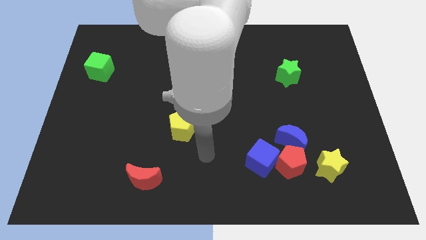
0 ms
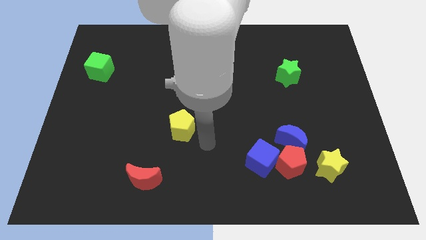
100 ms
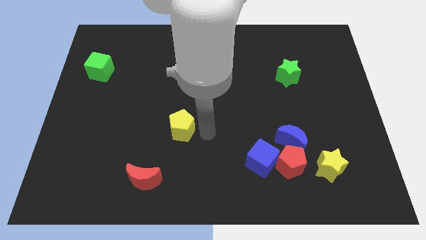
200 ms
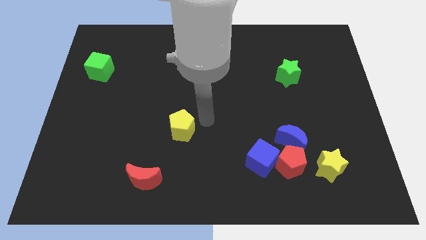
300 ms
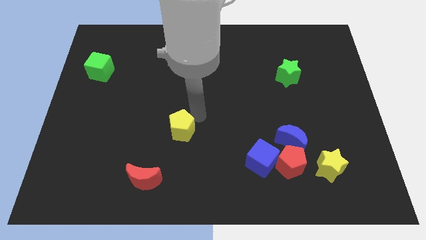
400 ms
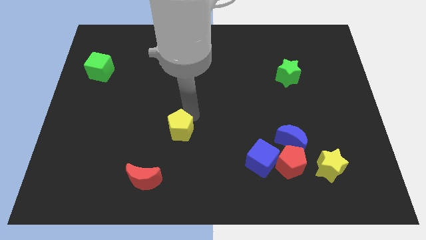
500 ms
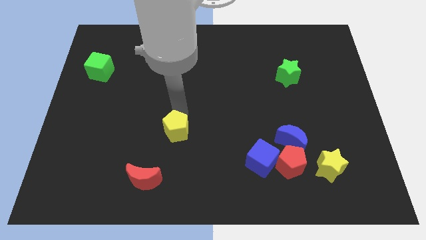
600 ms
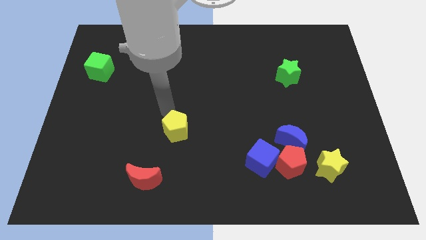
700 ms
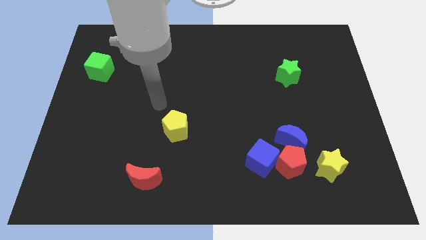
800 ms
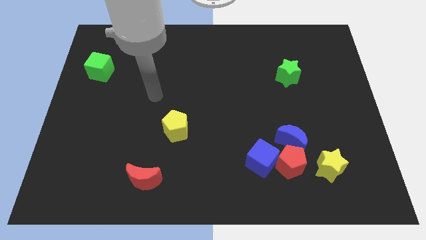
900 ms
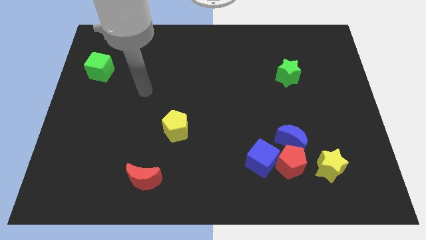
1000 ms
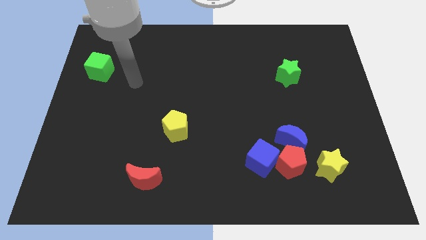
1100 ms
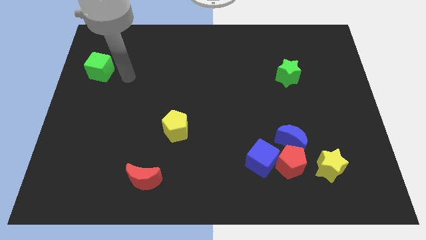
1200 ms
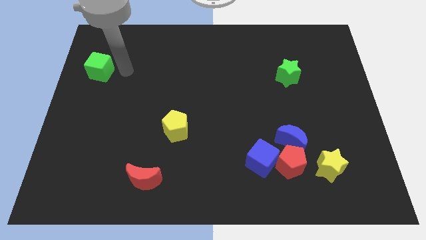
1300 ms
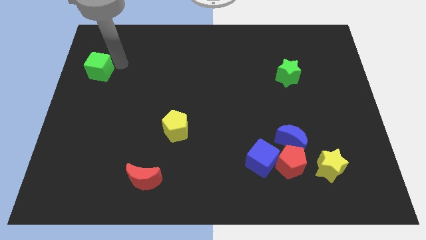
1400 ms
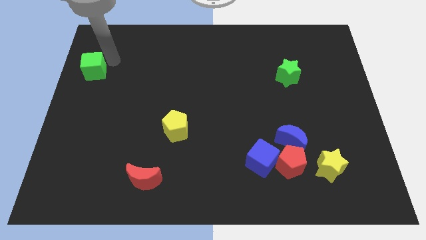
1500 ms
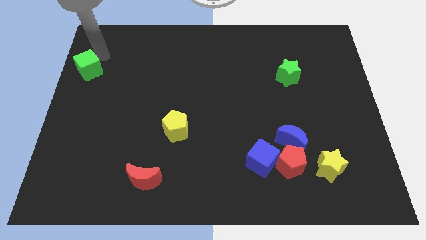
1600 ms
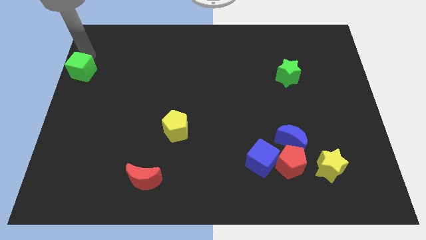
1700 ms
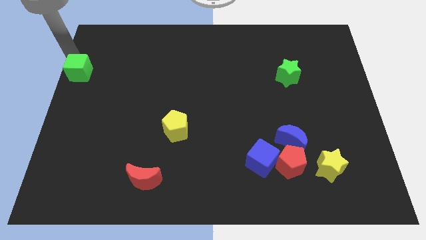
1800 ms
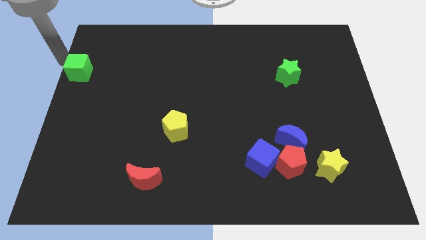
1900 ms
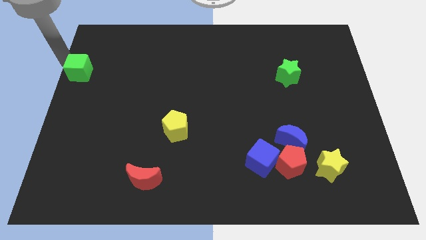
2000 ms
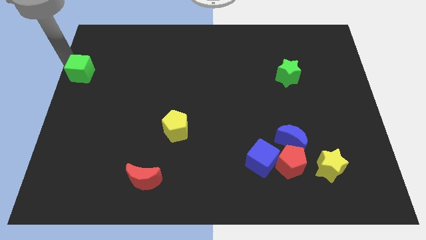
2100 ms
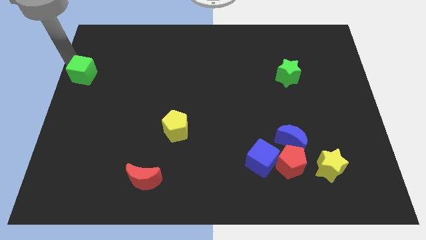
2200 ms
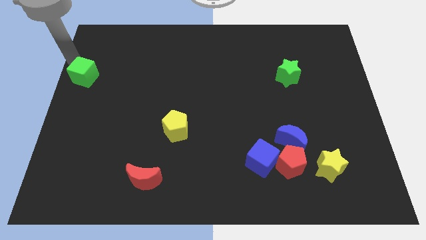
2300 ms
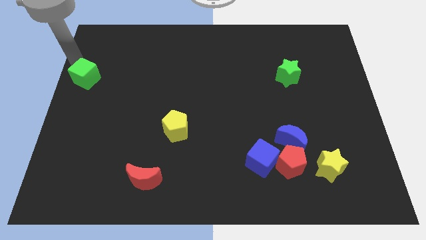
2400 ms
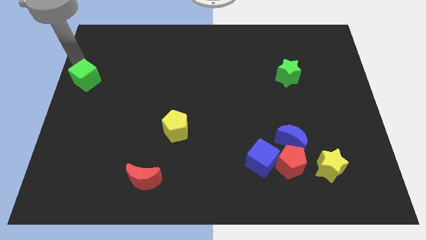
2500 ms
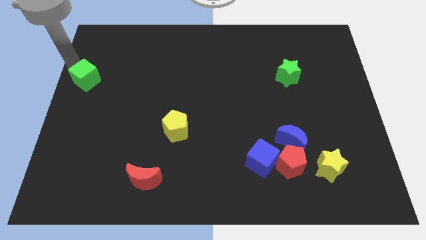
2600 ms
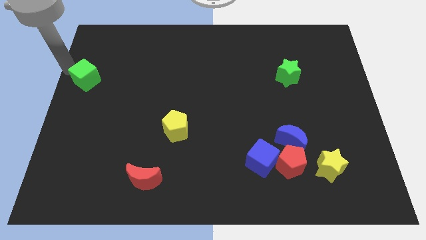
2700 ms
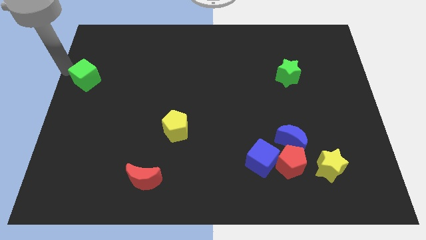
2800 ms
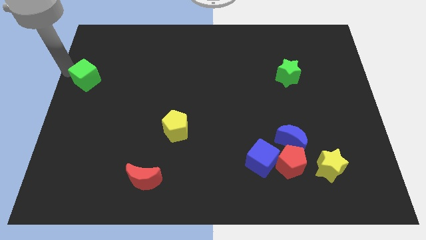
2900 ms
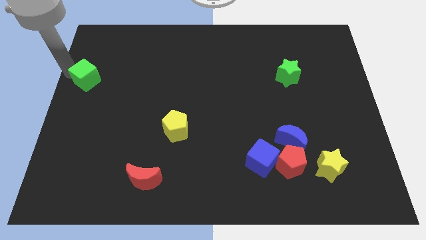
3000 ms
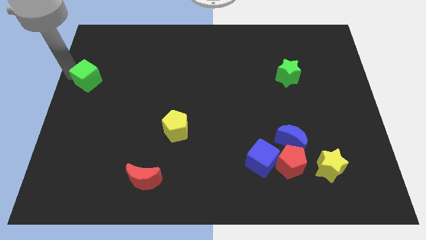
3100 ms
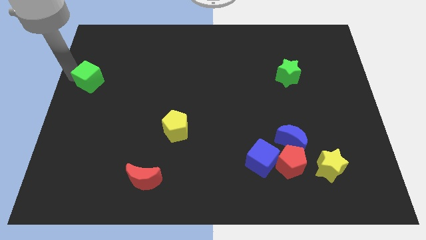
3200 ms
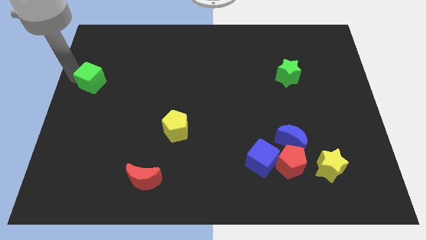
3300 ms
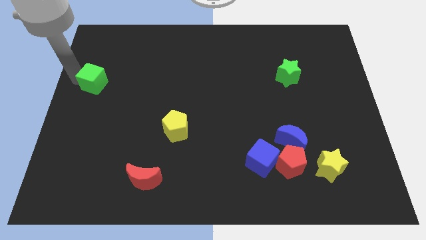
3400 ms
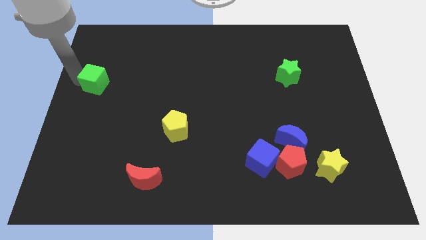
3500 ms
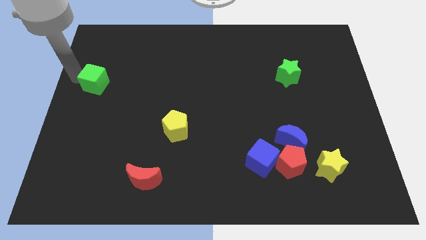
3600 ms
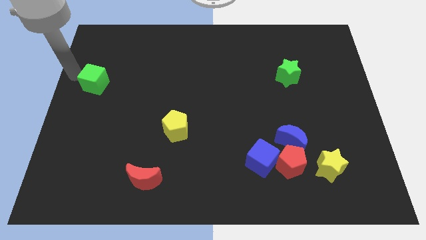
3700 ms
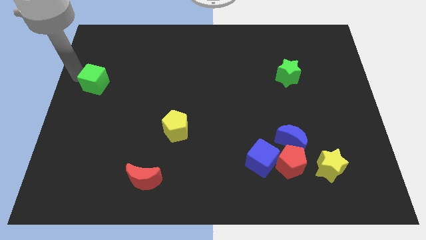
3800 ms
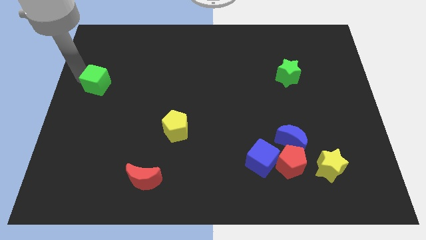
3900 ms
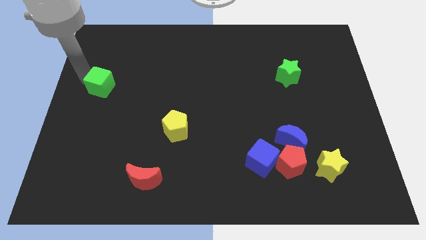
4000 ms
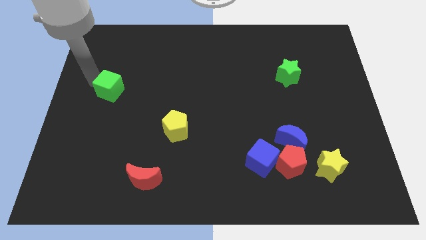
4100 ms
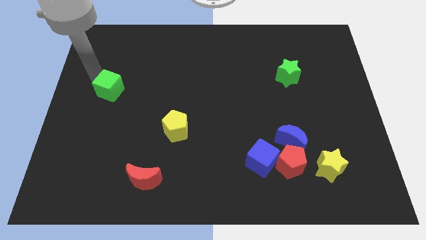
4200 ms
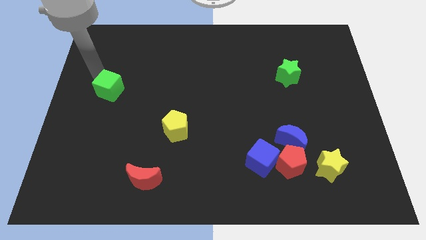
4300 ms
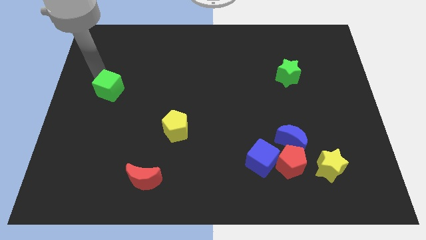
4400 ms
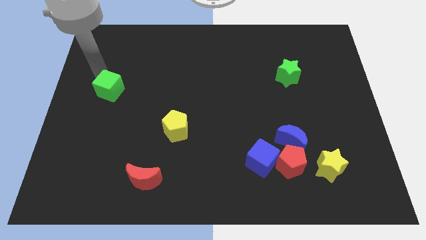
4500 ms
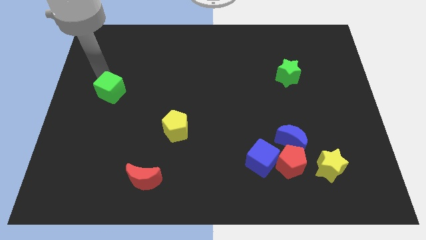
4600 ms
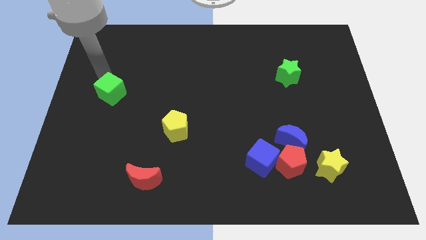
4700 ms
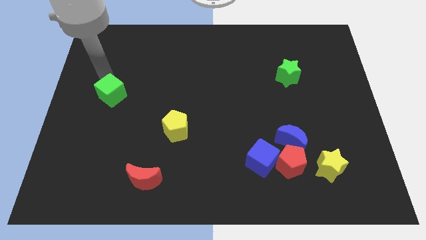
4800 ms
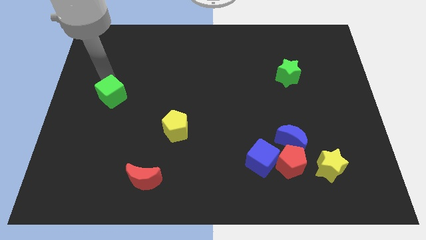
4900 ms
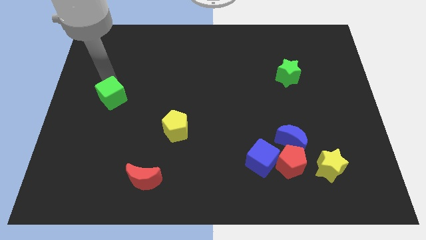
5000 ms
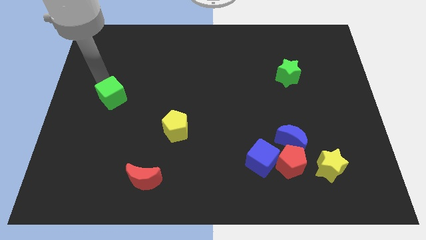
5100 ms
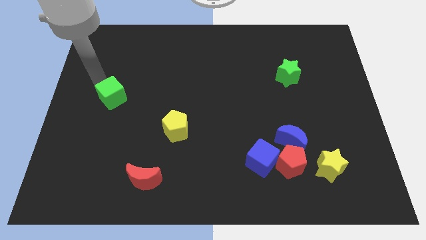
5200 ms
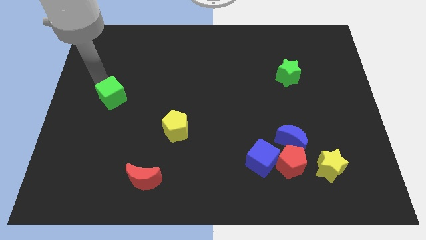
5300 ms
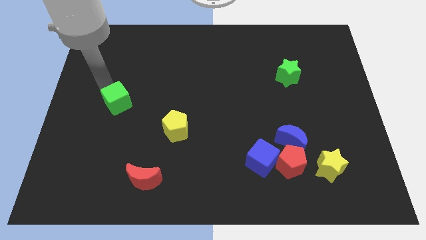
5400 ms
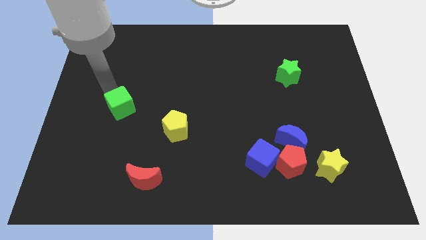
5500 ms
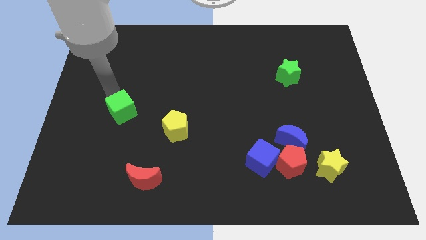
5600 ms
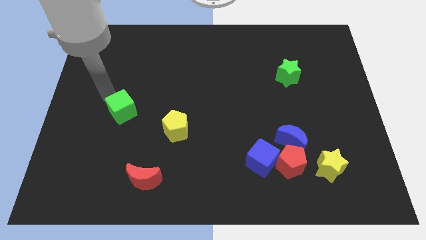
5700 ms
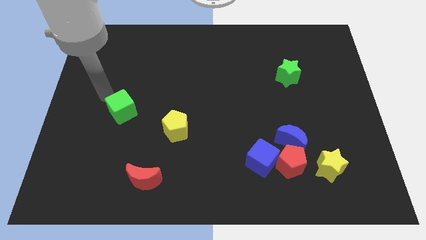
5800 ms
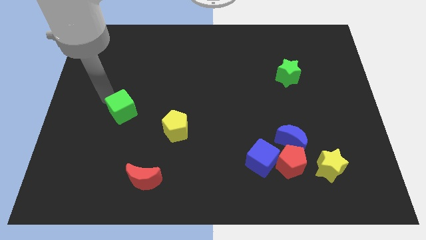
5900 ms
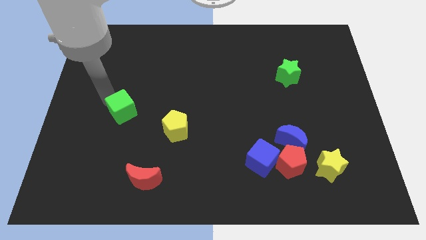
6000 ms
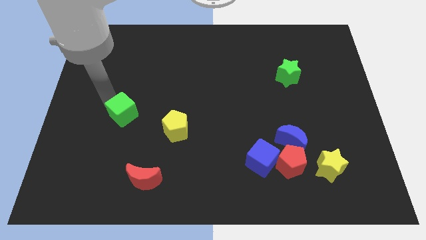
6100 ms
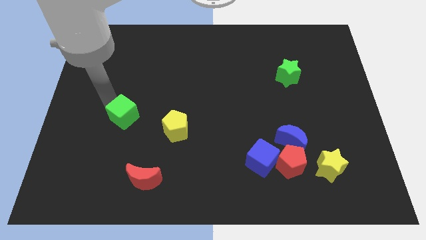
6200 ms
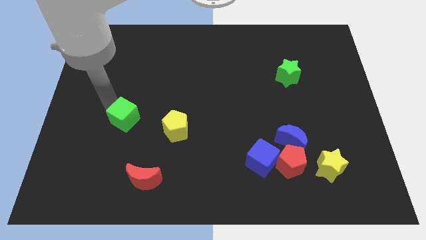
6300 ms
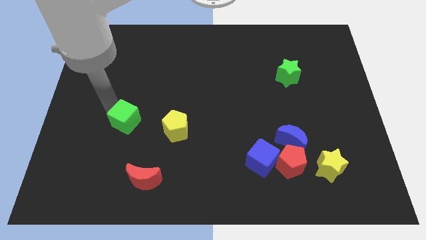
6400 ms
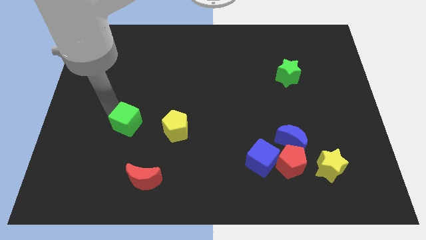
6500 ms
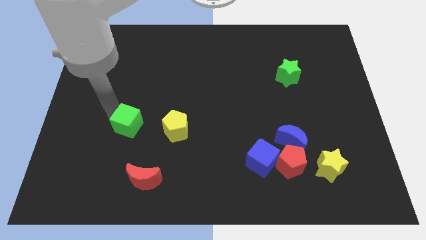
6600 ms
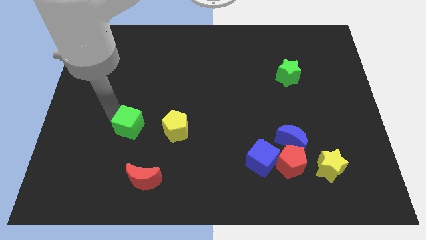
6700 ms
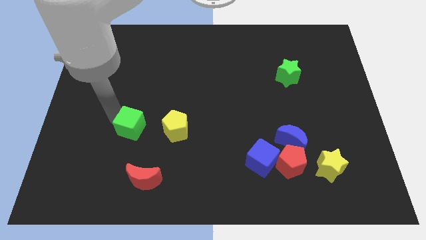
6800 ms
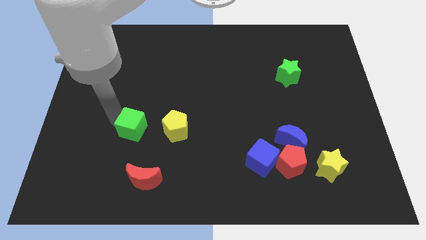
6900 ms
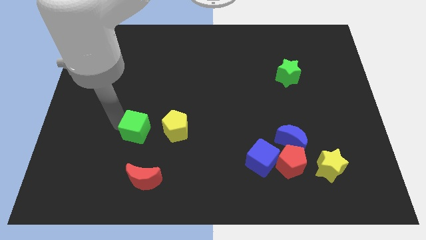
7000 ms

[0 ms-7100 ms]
push the green cube down and right diagonally

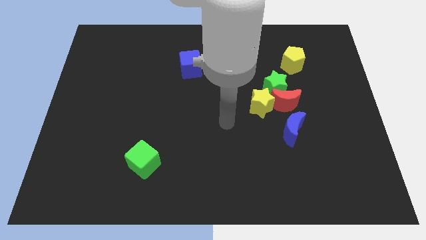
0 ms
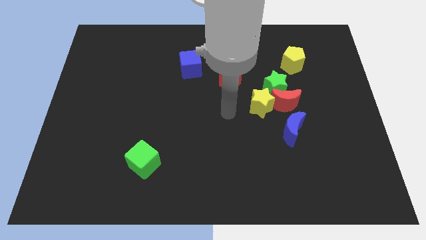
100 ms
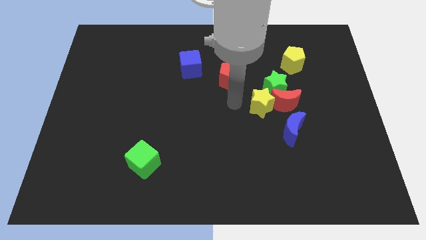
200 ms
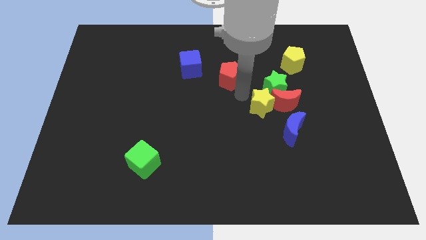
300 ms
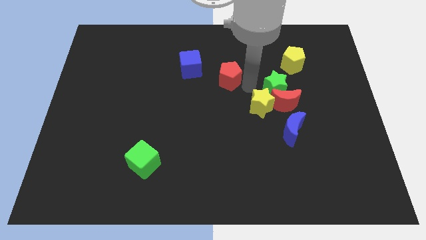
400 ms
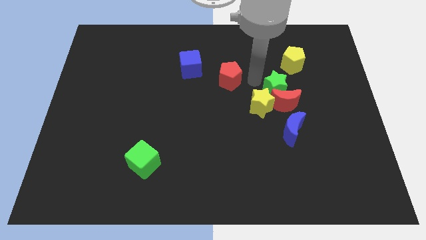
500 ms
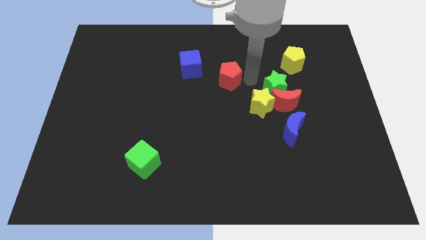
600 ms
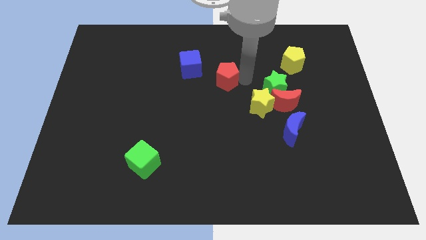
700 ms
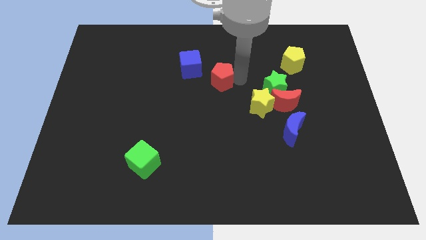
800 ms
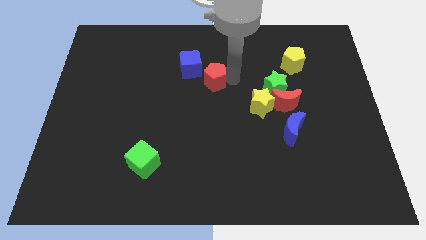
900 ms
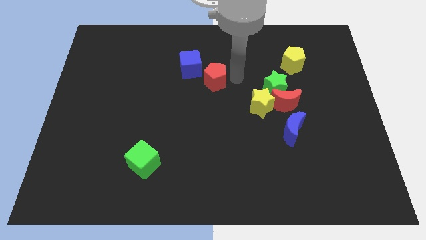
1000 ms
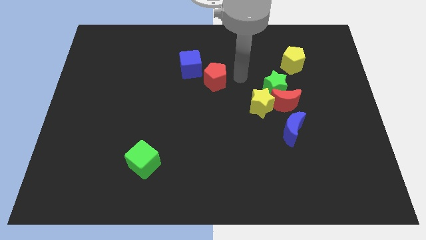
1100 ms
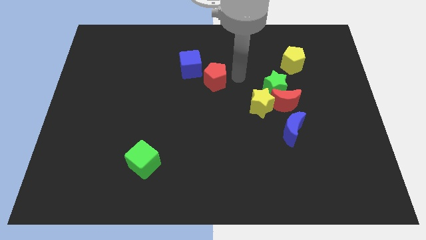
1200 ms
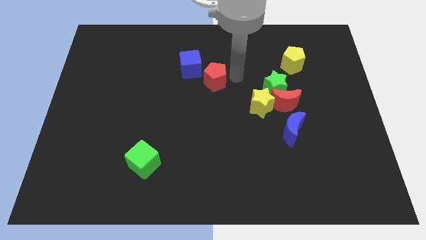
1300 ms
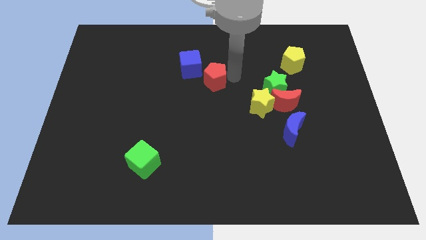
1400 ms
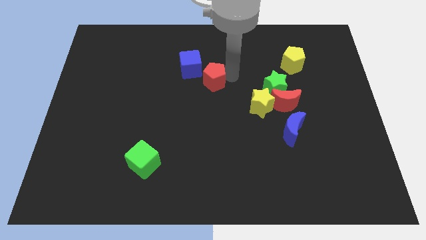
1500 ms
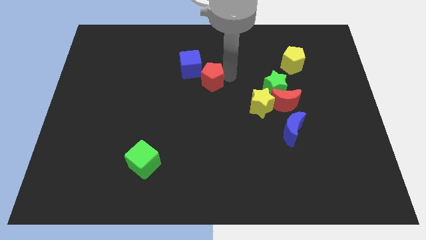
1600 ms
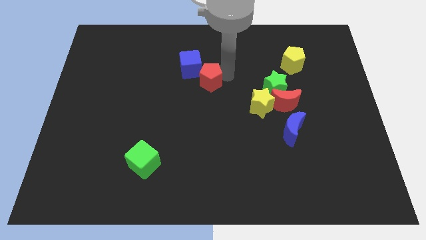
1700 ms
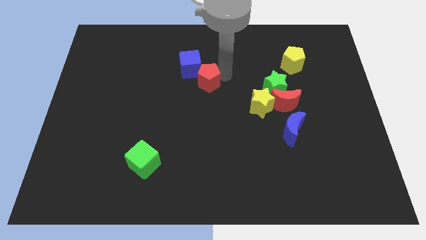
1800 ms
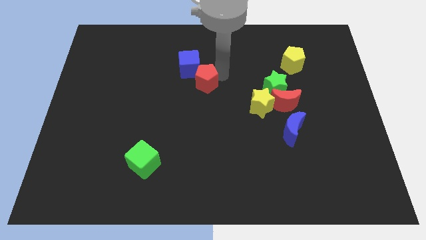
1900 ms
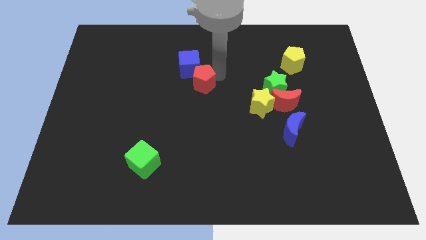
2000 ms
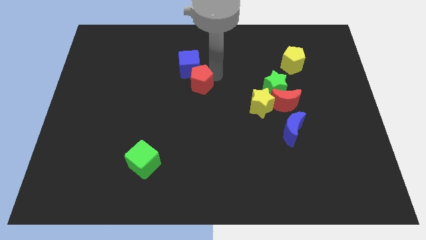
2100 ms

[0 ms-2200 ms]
slightly push the red pentagon left
